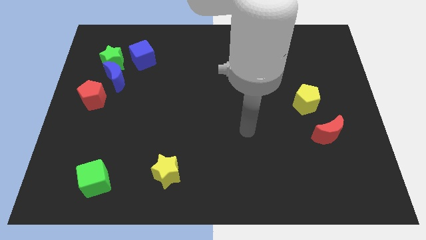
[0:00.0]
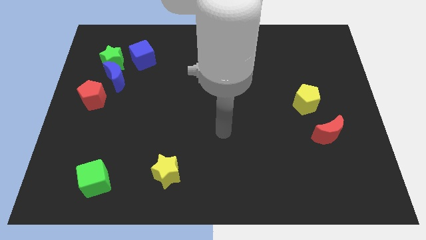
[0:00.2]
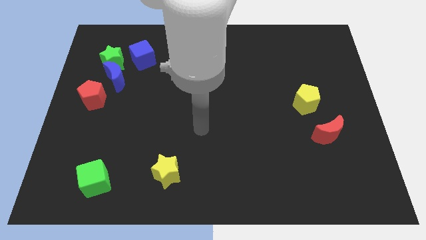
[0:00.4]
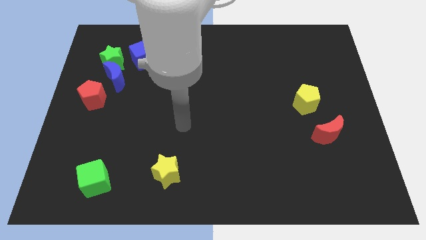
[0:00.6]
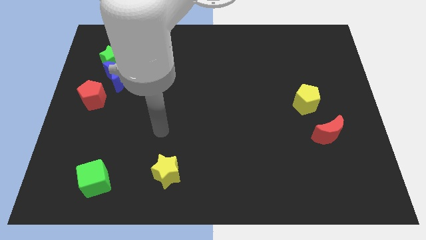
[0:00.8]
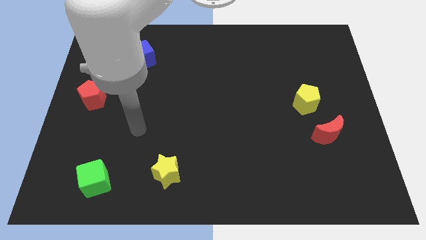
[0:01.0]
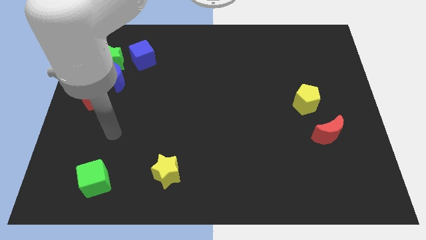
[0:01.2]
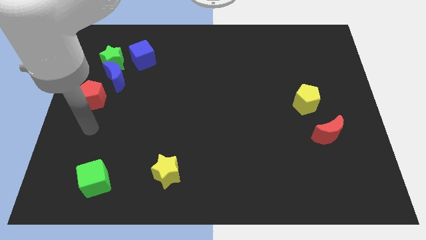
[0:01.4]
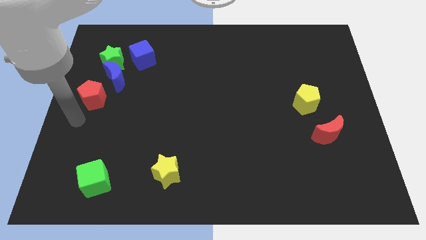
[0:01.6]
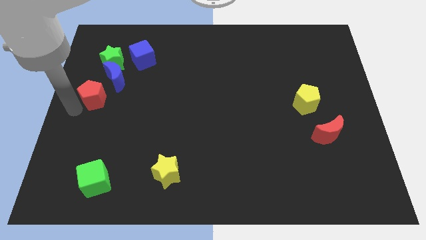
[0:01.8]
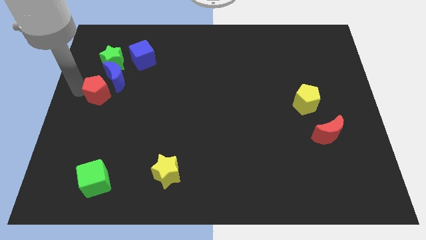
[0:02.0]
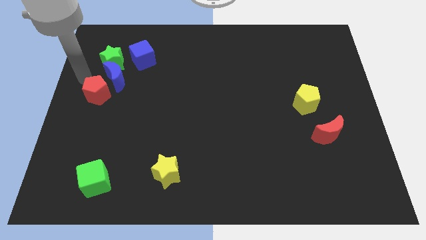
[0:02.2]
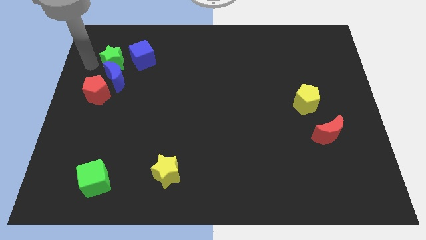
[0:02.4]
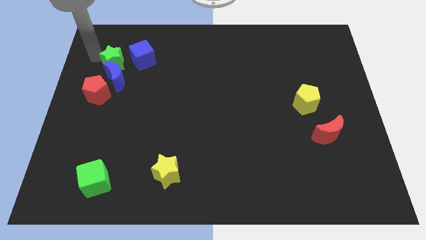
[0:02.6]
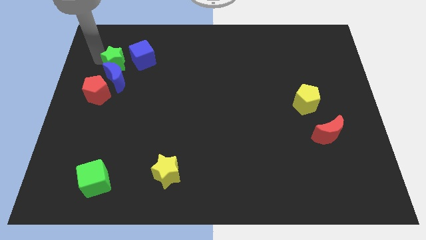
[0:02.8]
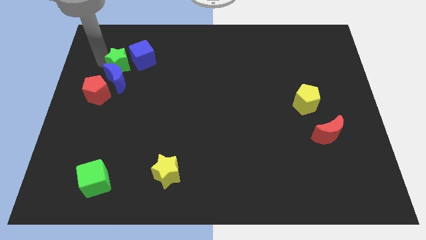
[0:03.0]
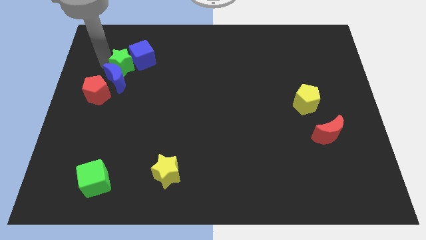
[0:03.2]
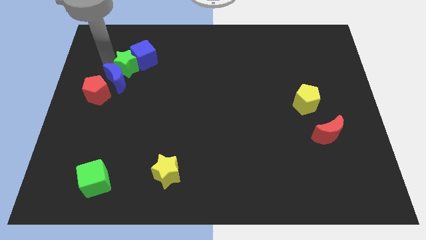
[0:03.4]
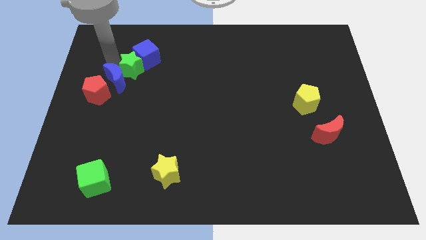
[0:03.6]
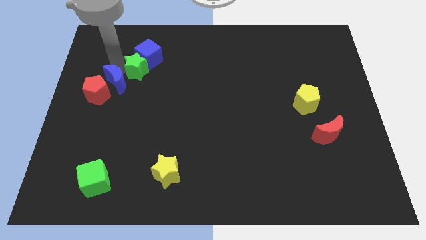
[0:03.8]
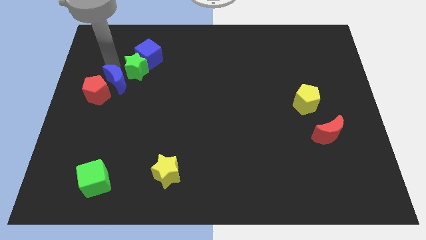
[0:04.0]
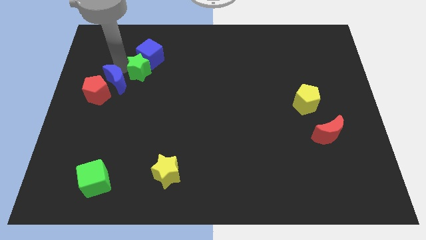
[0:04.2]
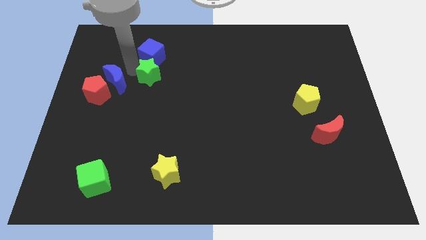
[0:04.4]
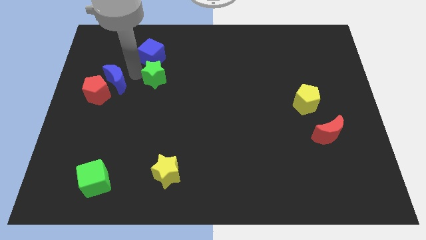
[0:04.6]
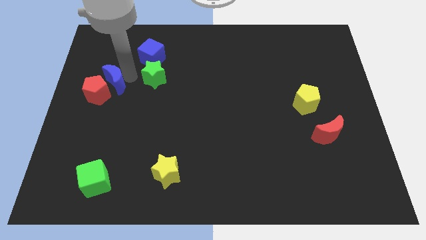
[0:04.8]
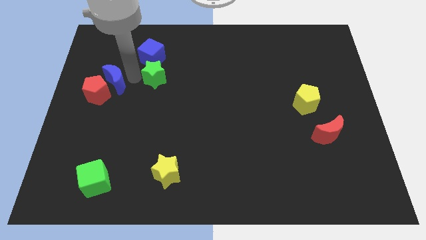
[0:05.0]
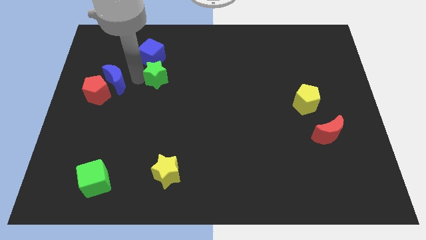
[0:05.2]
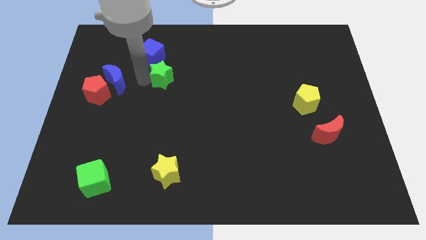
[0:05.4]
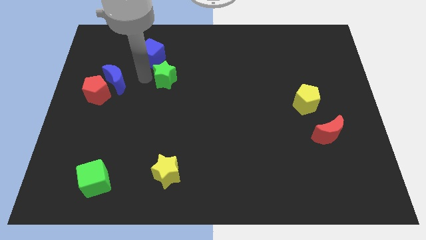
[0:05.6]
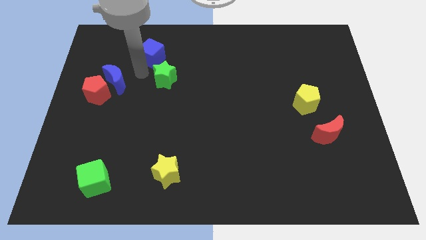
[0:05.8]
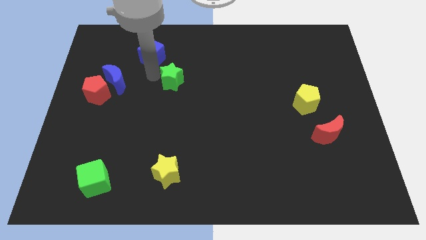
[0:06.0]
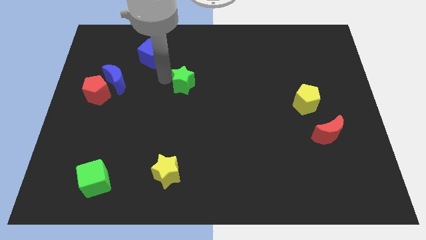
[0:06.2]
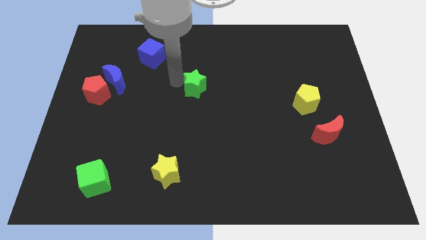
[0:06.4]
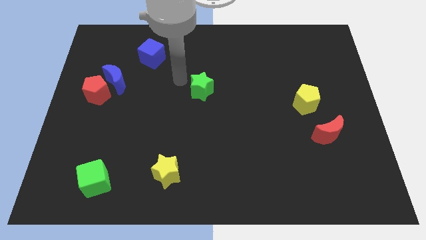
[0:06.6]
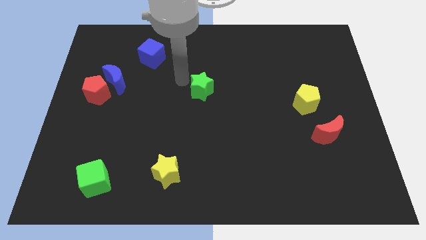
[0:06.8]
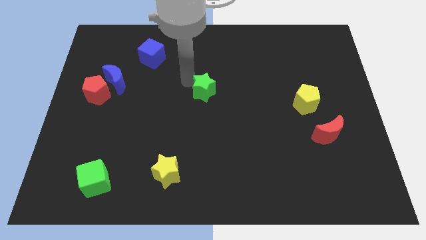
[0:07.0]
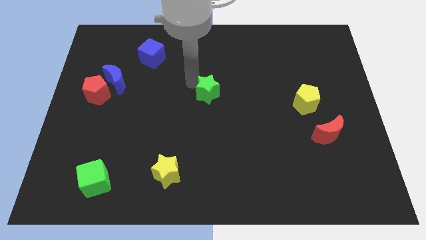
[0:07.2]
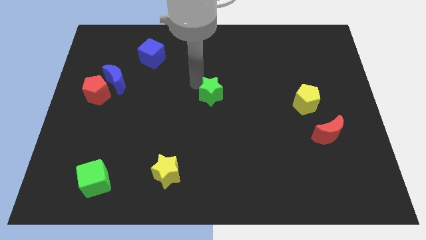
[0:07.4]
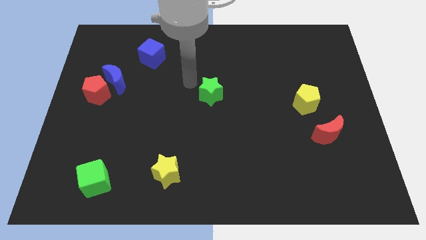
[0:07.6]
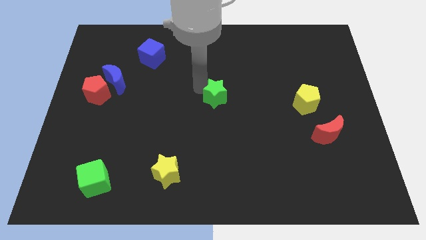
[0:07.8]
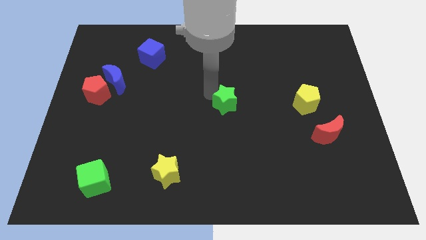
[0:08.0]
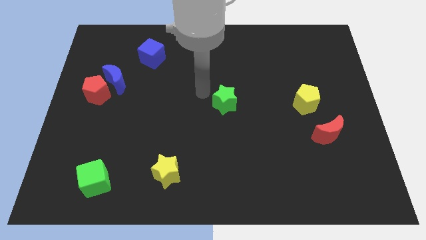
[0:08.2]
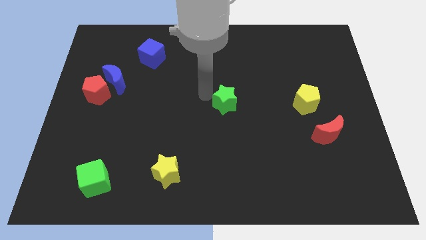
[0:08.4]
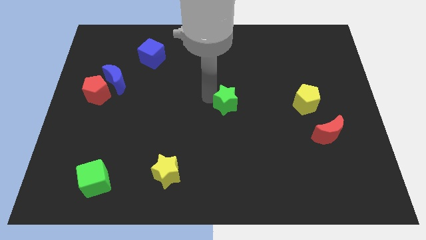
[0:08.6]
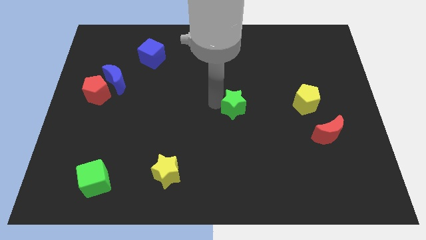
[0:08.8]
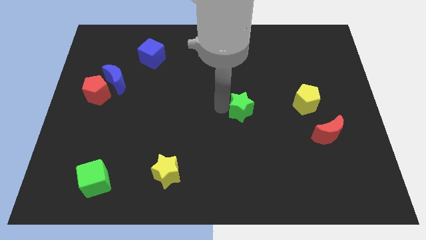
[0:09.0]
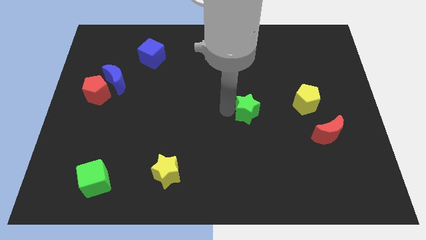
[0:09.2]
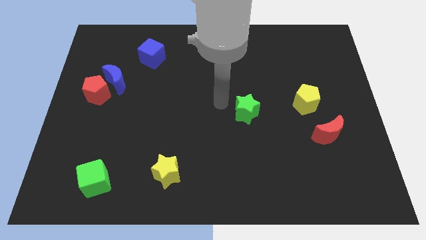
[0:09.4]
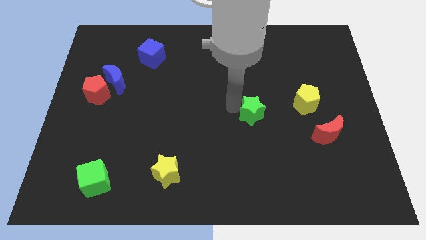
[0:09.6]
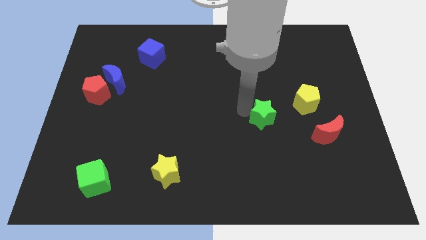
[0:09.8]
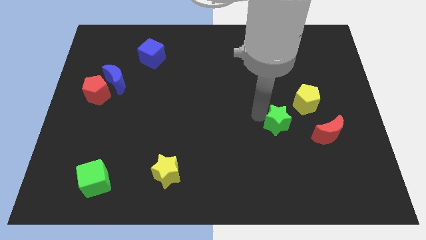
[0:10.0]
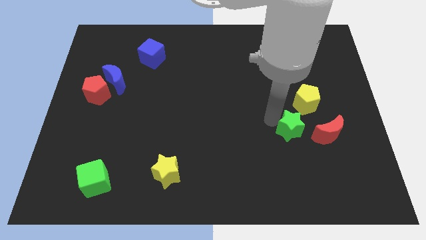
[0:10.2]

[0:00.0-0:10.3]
put the green star below the yellow pentagon

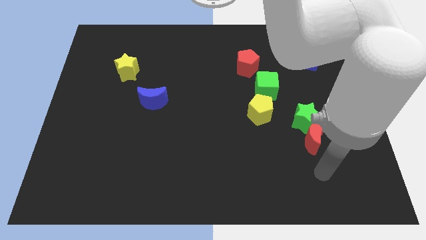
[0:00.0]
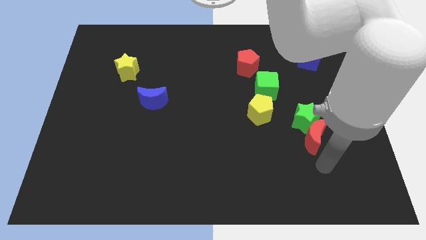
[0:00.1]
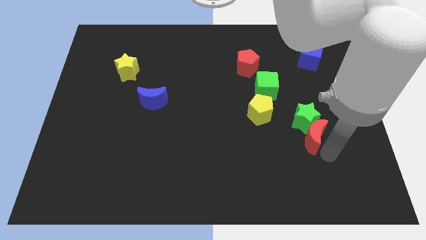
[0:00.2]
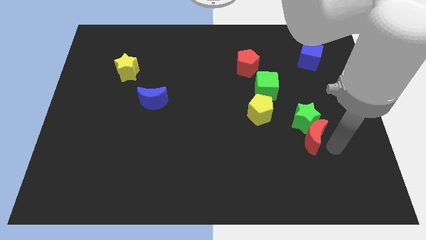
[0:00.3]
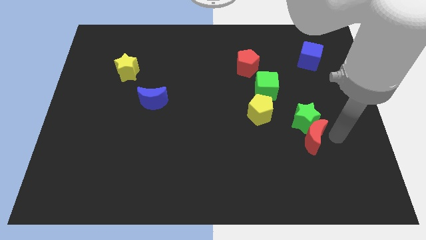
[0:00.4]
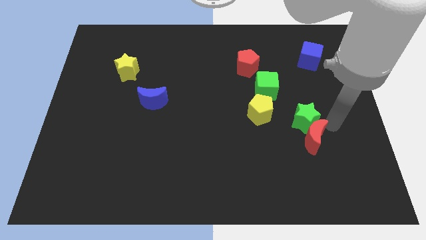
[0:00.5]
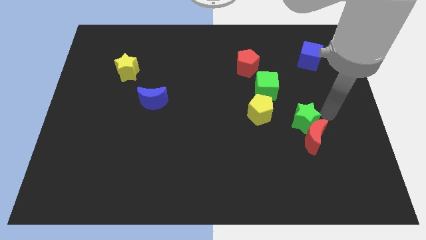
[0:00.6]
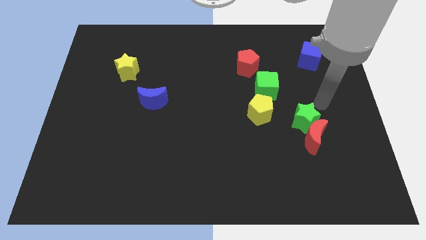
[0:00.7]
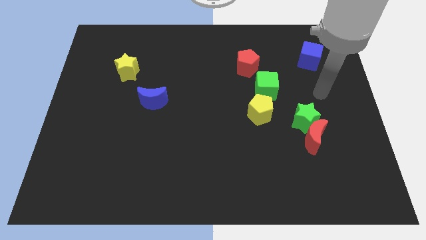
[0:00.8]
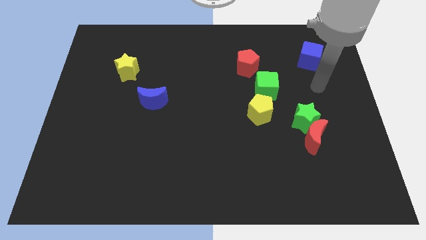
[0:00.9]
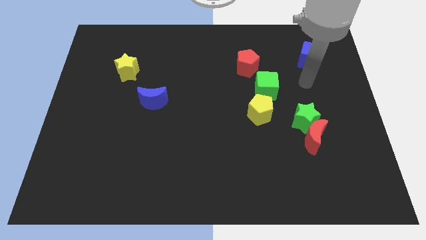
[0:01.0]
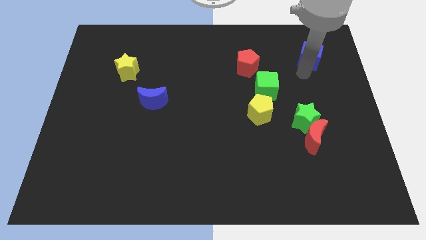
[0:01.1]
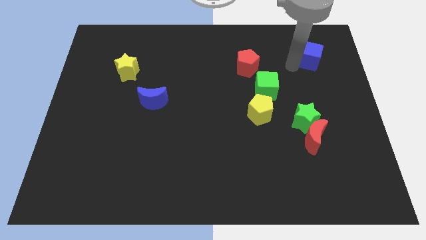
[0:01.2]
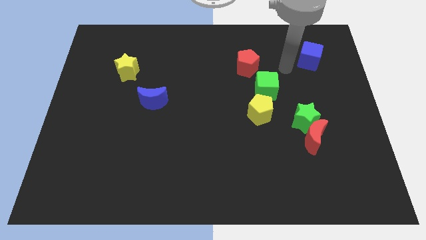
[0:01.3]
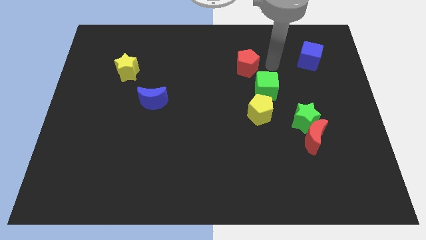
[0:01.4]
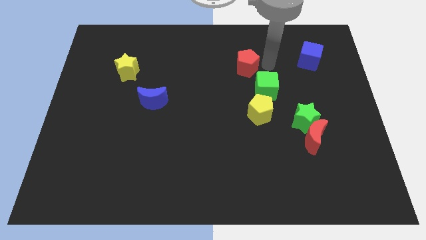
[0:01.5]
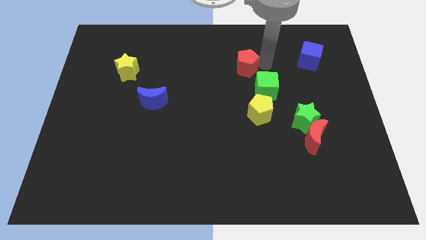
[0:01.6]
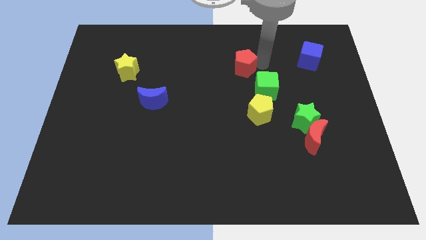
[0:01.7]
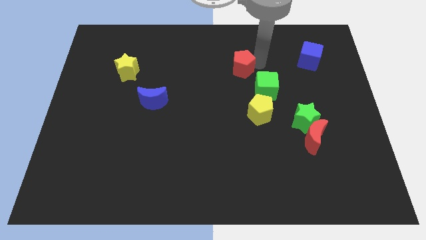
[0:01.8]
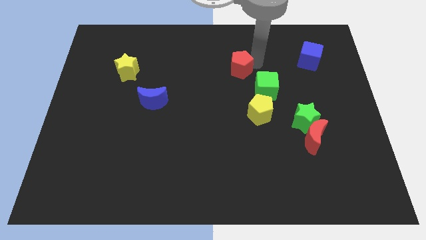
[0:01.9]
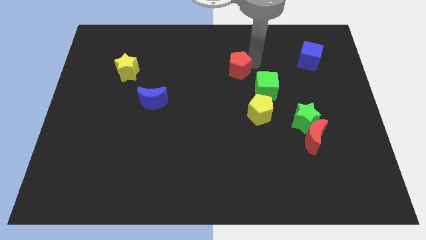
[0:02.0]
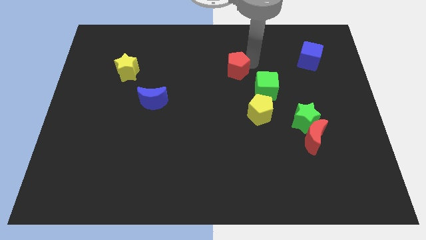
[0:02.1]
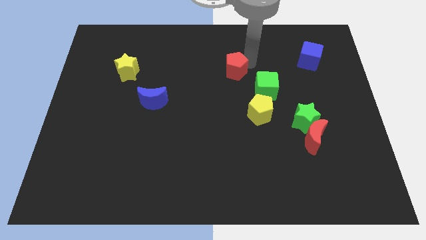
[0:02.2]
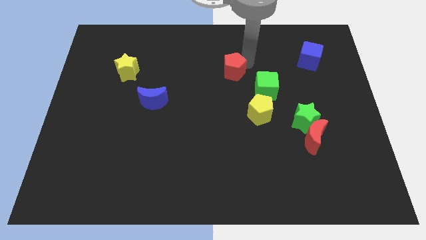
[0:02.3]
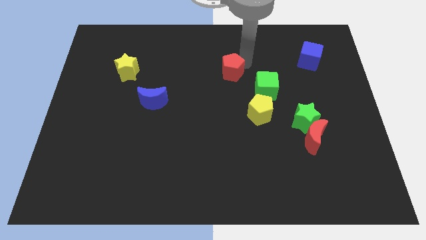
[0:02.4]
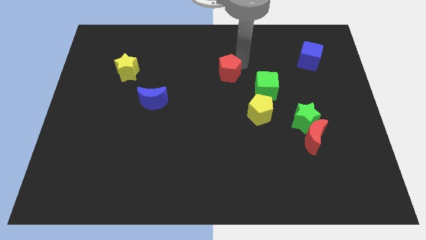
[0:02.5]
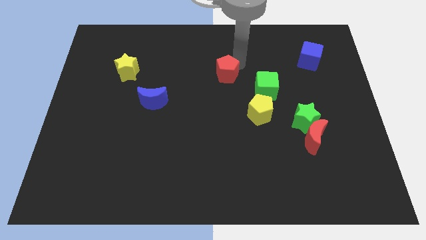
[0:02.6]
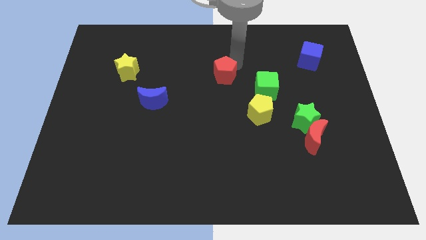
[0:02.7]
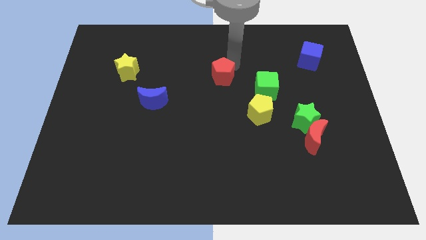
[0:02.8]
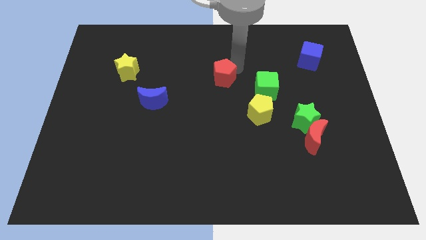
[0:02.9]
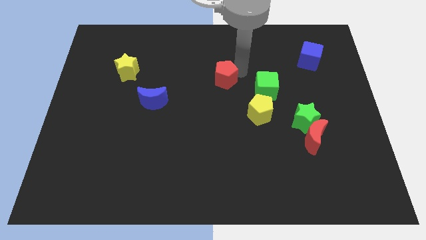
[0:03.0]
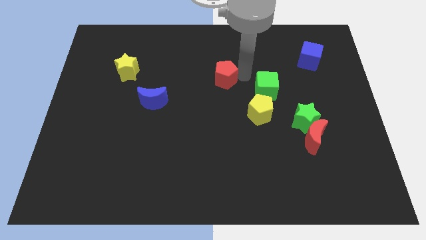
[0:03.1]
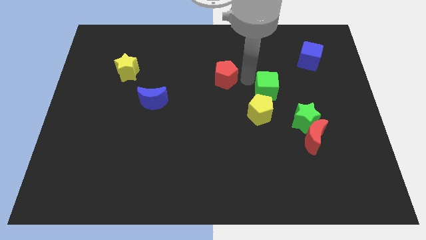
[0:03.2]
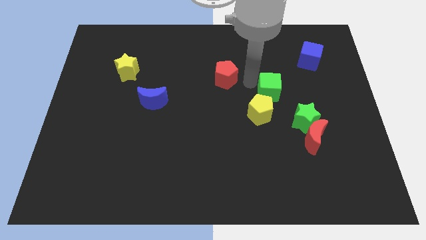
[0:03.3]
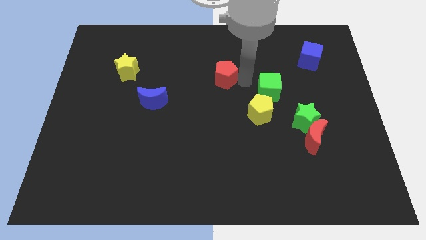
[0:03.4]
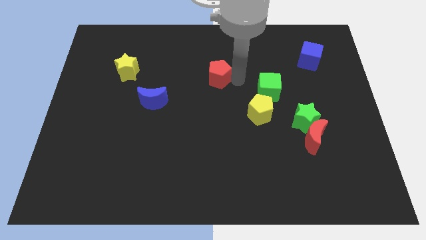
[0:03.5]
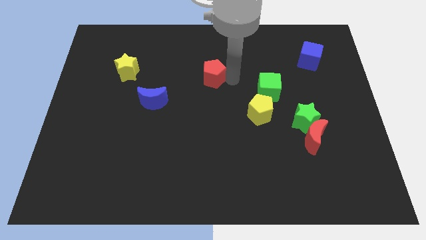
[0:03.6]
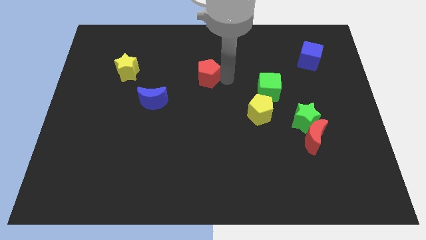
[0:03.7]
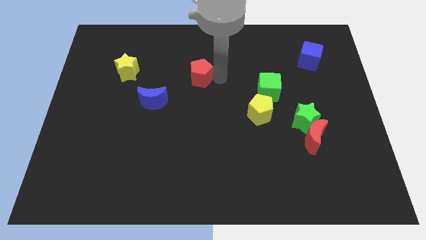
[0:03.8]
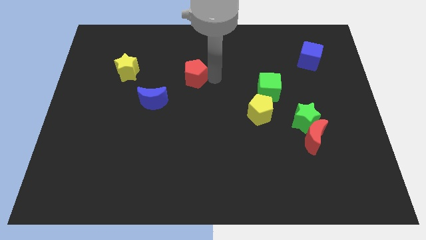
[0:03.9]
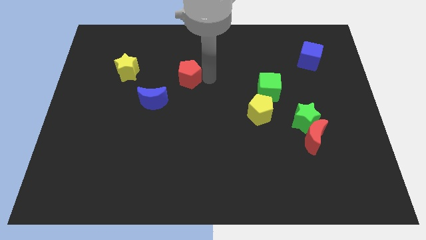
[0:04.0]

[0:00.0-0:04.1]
put the red pentagon just right of the yellow star
